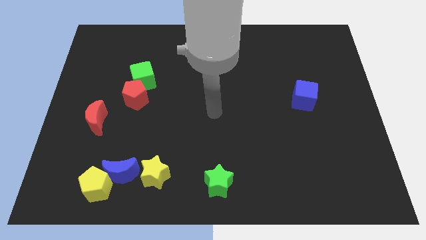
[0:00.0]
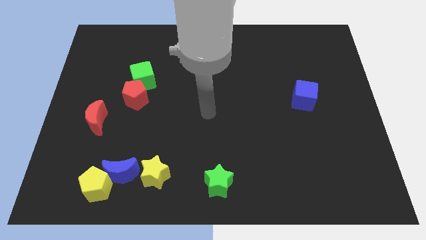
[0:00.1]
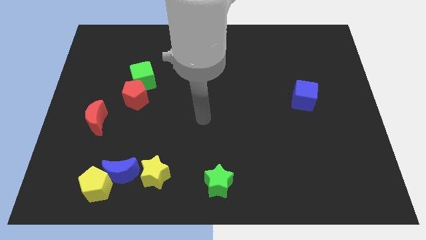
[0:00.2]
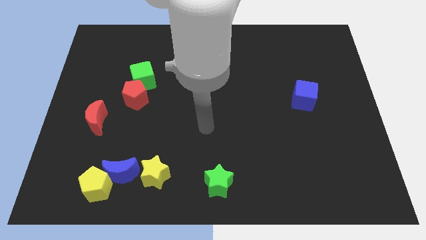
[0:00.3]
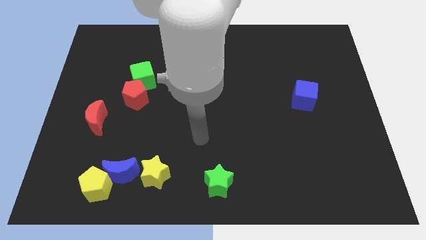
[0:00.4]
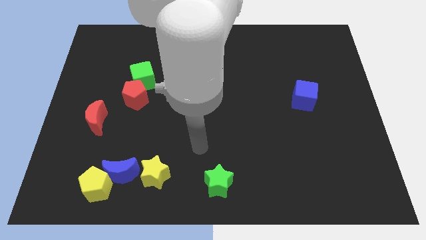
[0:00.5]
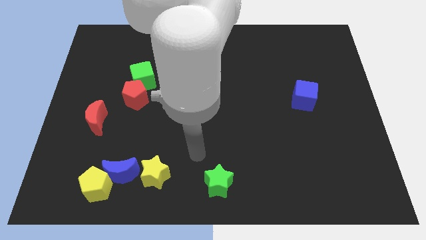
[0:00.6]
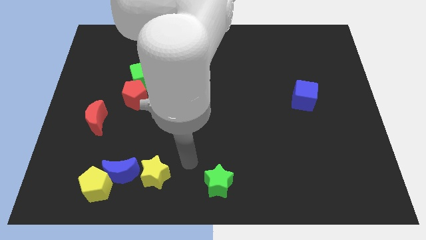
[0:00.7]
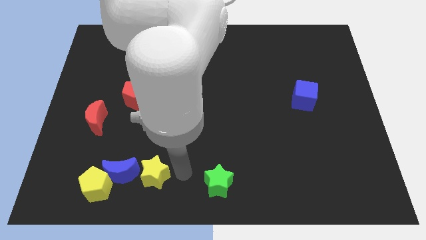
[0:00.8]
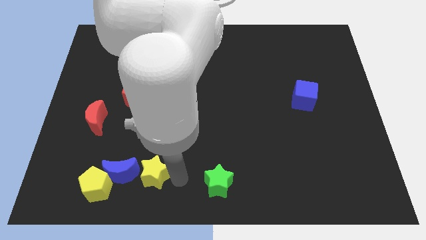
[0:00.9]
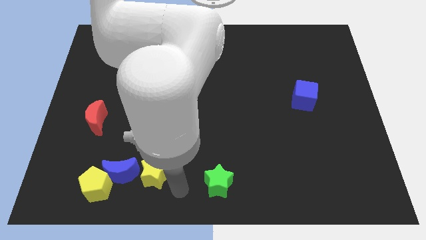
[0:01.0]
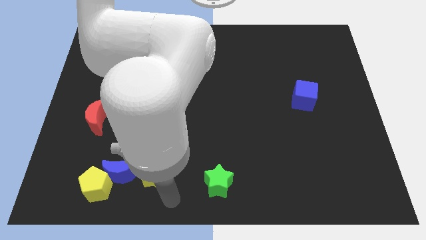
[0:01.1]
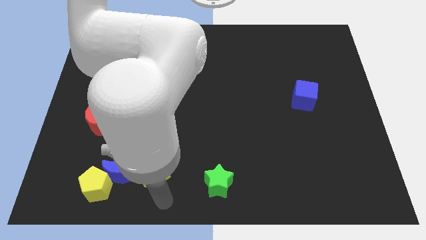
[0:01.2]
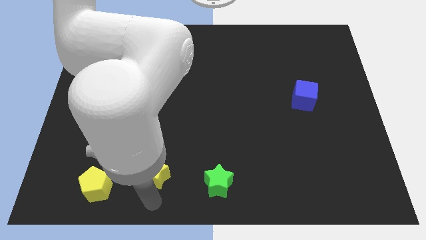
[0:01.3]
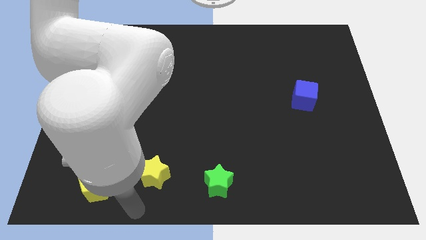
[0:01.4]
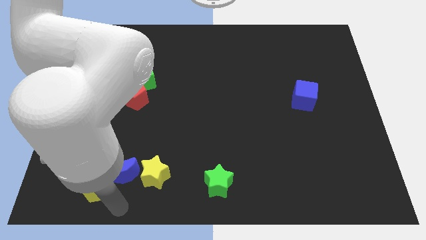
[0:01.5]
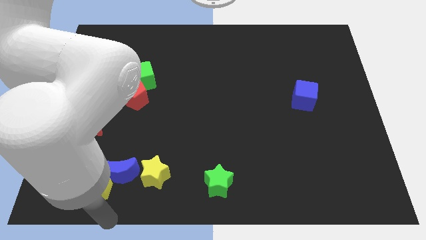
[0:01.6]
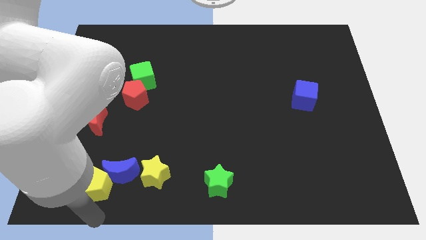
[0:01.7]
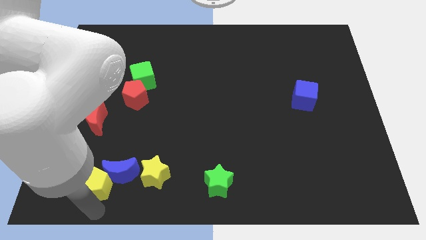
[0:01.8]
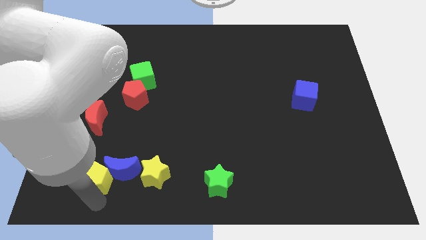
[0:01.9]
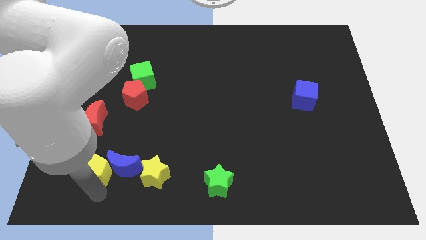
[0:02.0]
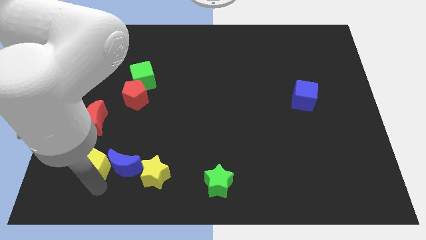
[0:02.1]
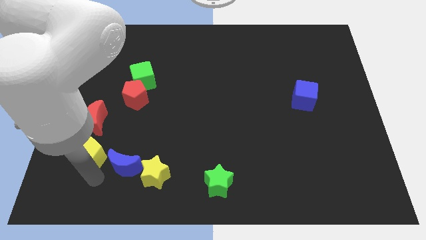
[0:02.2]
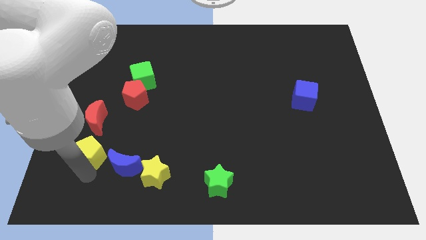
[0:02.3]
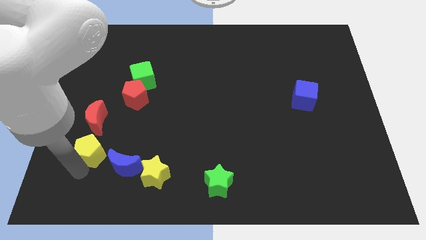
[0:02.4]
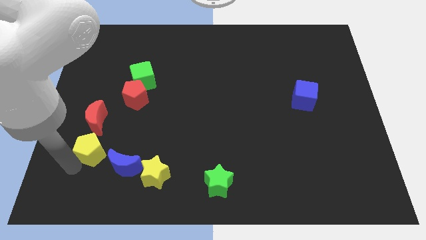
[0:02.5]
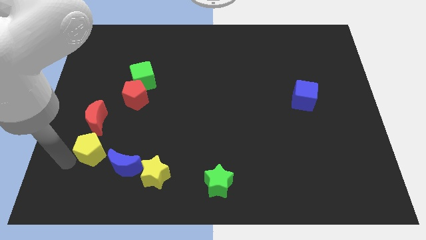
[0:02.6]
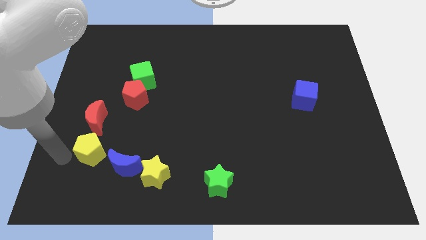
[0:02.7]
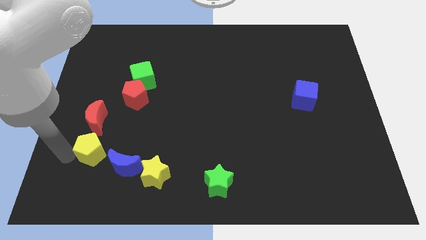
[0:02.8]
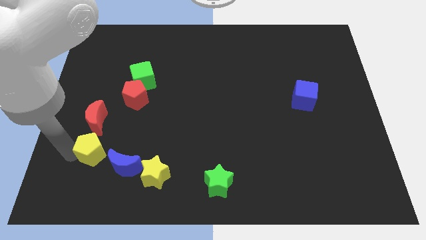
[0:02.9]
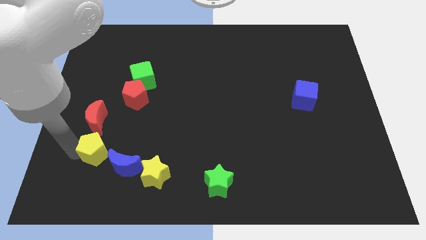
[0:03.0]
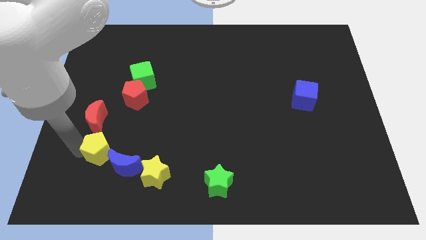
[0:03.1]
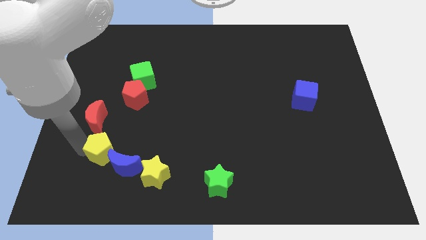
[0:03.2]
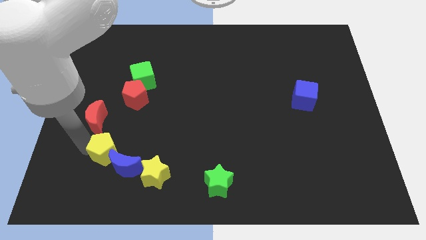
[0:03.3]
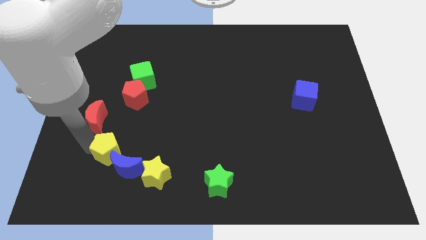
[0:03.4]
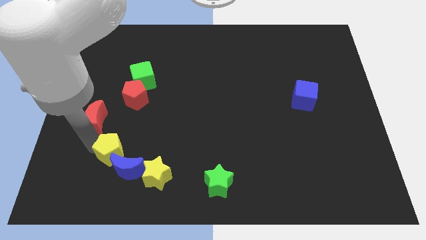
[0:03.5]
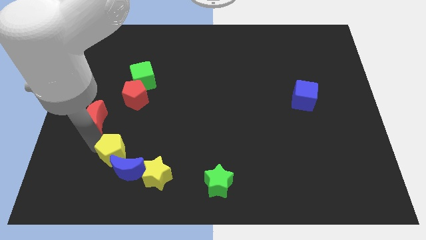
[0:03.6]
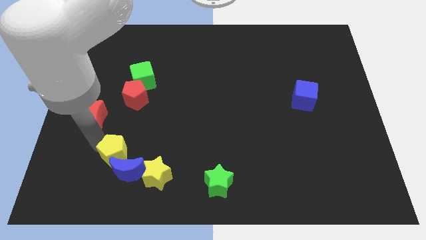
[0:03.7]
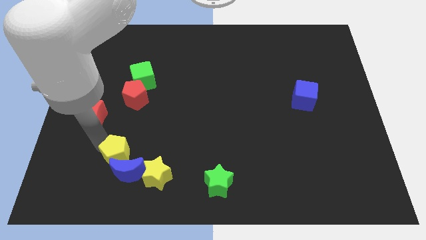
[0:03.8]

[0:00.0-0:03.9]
slightly move the yellow pentagon diagonally up and to the right

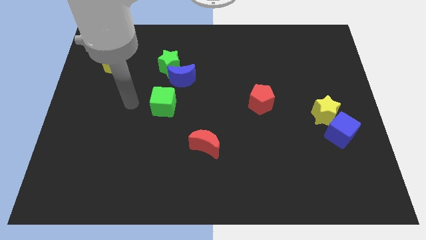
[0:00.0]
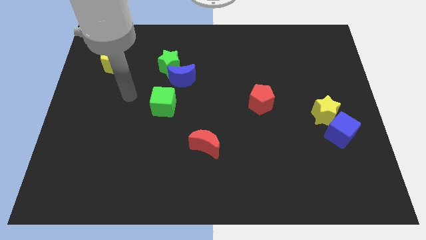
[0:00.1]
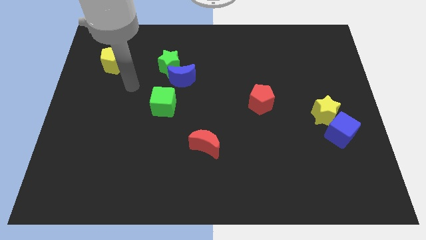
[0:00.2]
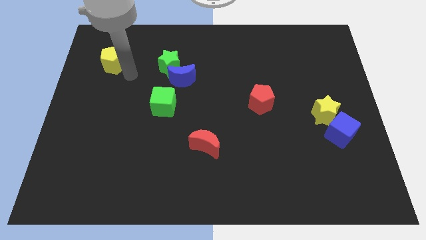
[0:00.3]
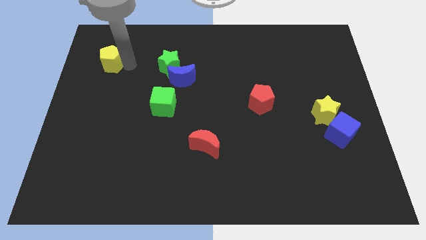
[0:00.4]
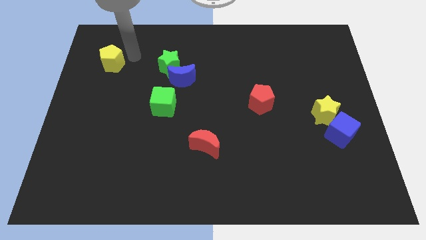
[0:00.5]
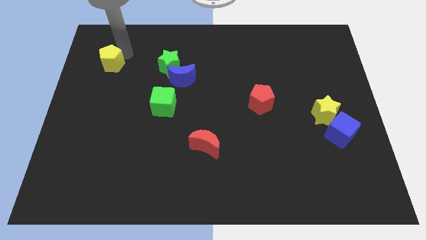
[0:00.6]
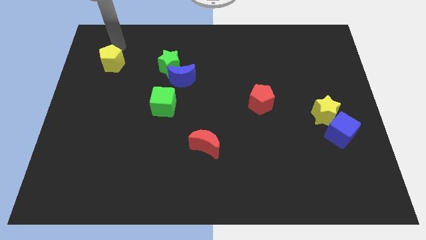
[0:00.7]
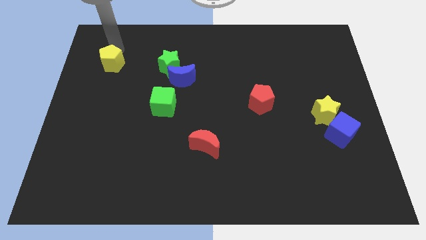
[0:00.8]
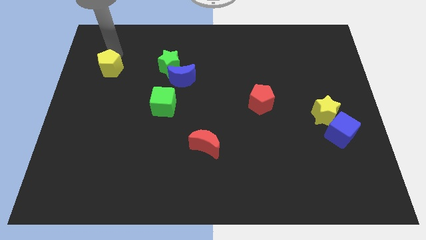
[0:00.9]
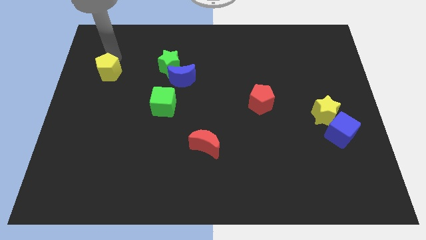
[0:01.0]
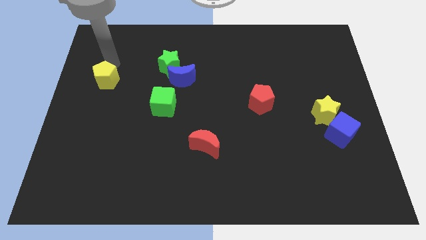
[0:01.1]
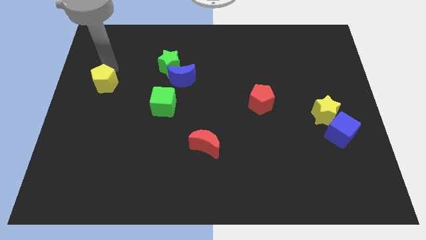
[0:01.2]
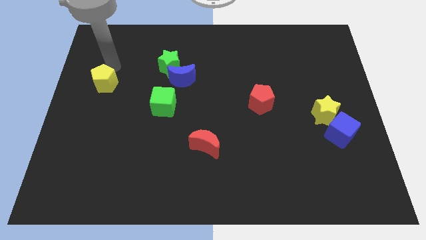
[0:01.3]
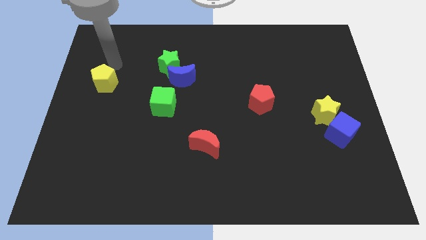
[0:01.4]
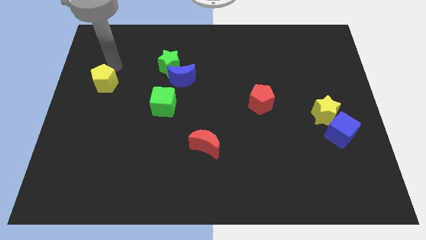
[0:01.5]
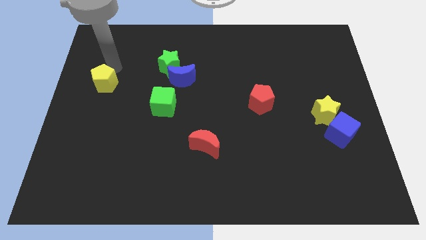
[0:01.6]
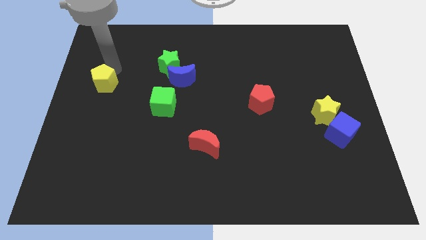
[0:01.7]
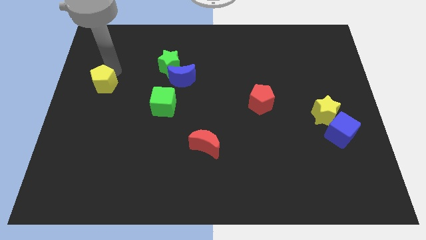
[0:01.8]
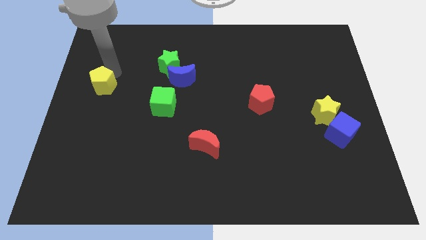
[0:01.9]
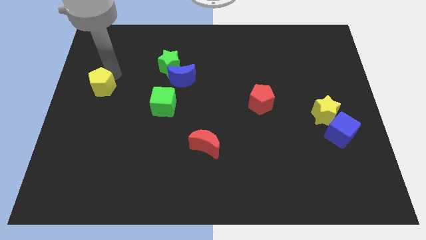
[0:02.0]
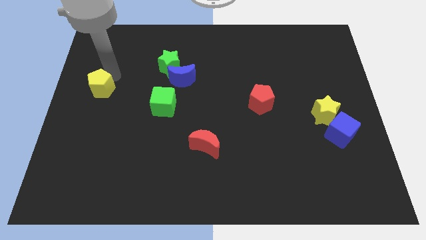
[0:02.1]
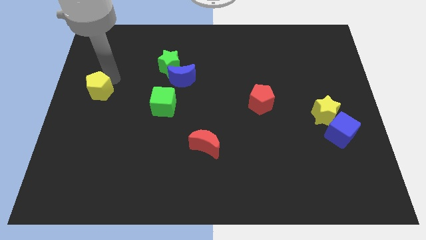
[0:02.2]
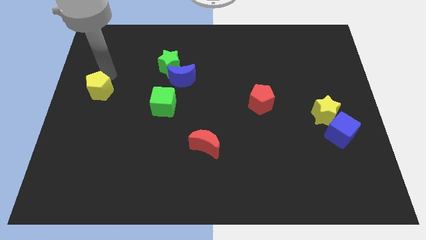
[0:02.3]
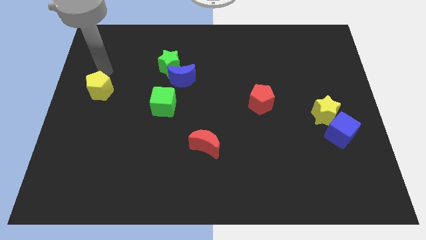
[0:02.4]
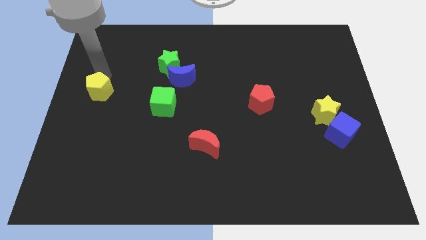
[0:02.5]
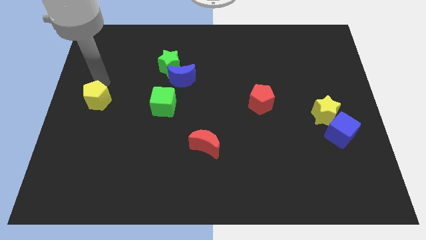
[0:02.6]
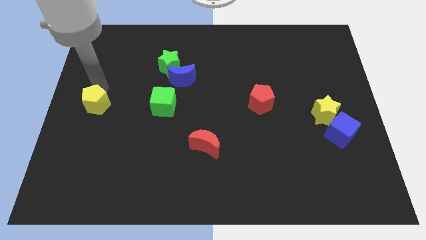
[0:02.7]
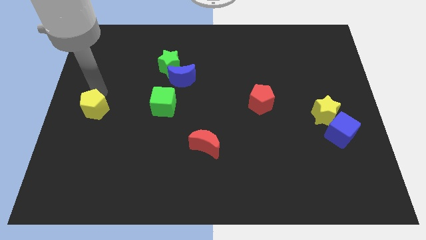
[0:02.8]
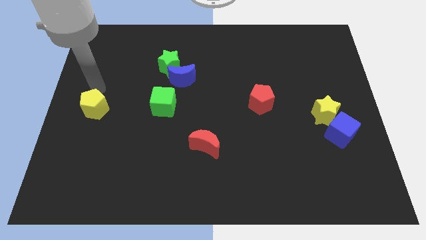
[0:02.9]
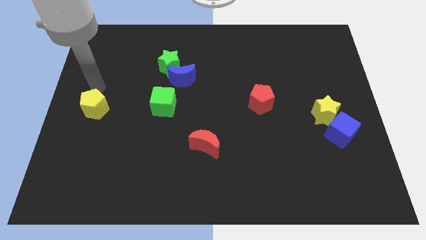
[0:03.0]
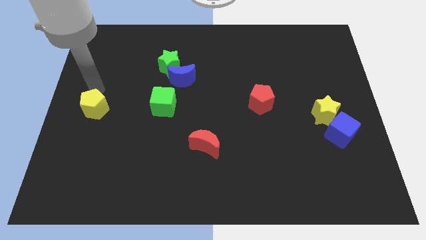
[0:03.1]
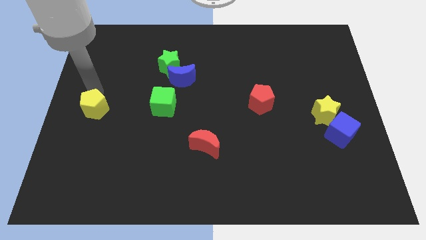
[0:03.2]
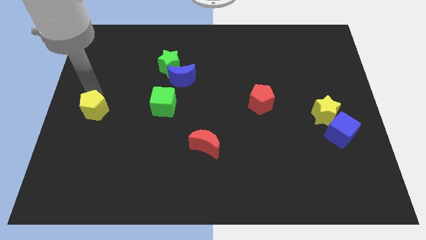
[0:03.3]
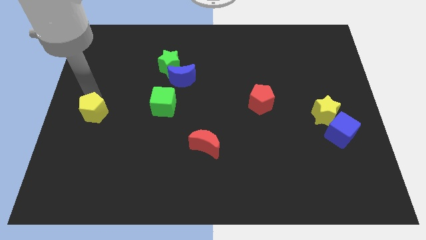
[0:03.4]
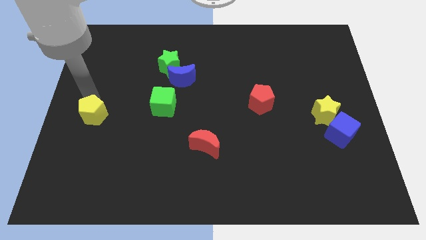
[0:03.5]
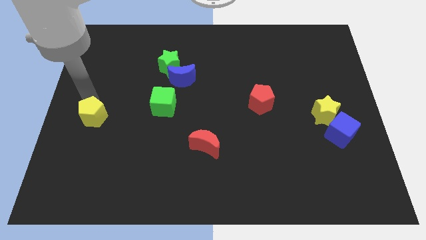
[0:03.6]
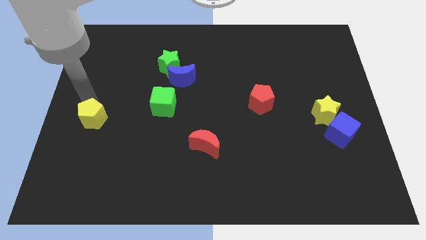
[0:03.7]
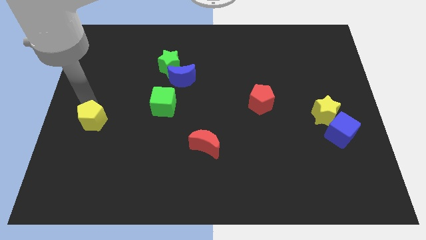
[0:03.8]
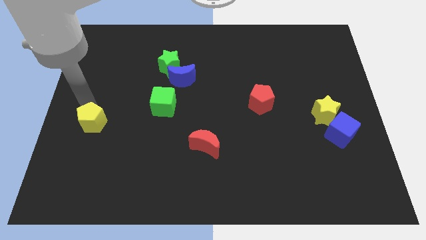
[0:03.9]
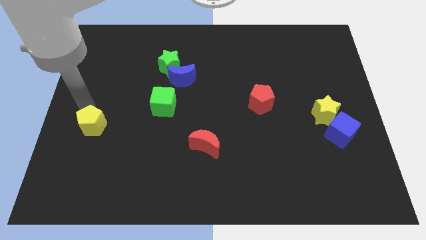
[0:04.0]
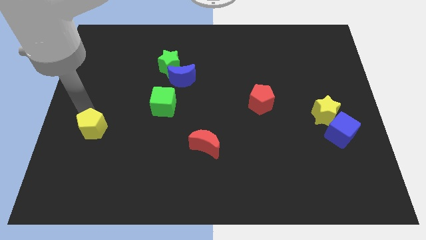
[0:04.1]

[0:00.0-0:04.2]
slide the yellow pentagon downwards
